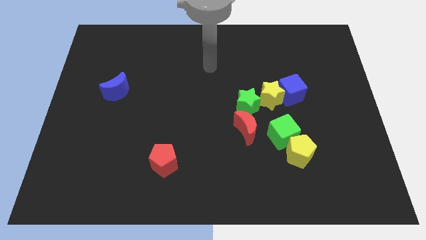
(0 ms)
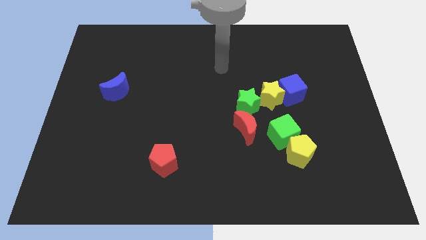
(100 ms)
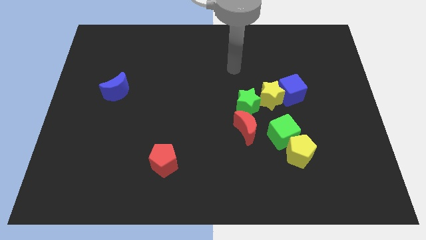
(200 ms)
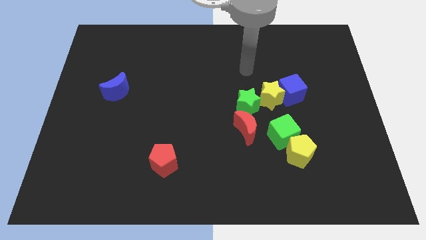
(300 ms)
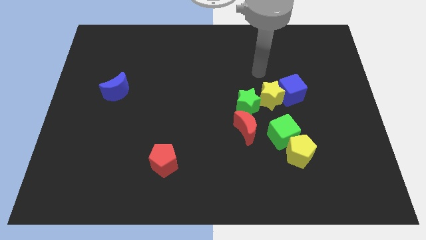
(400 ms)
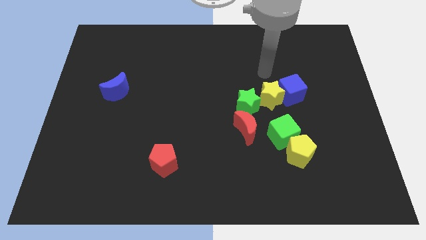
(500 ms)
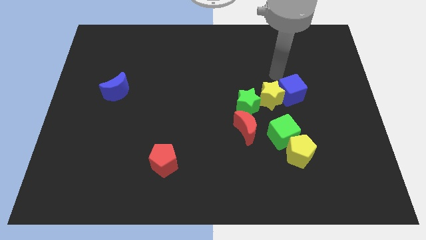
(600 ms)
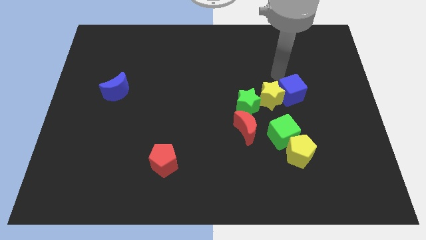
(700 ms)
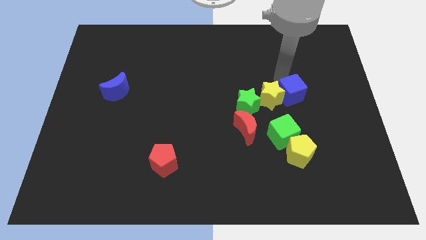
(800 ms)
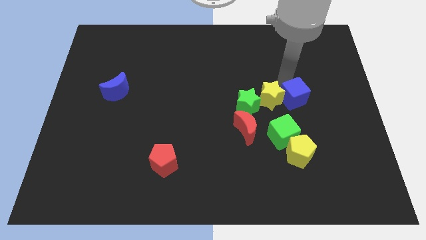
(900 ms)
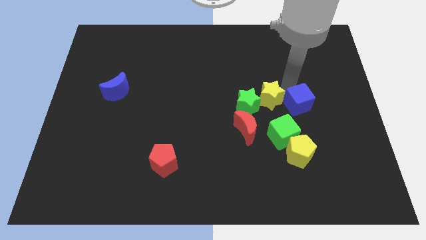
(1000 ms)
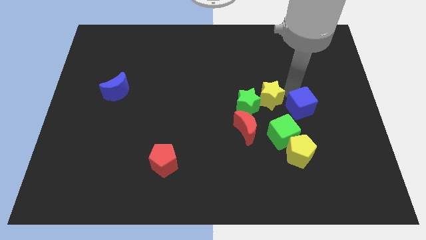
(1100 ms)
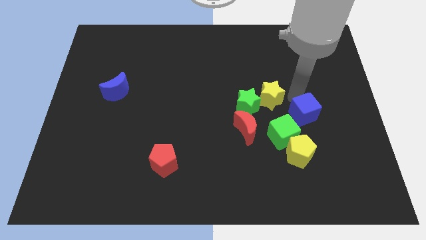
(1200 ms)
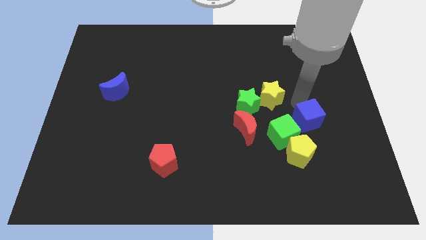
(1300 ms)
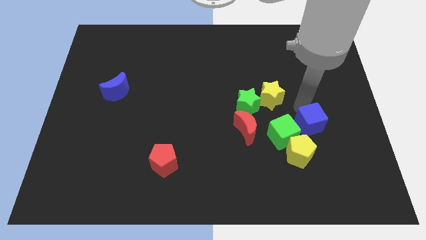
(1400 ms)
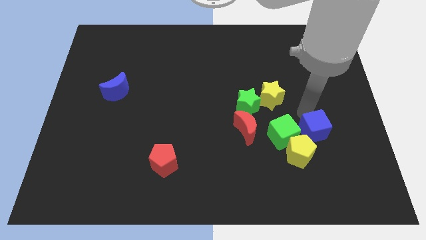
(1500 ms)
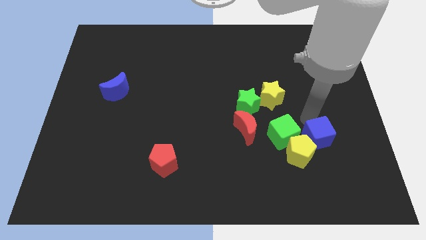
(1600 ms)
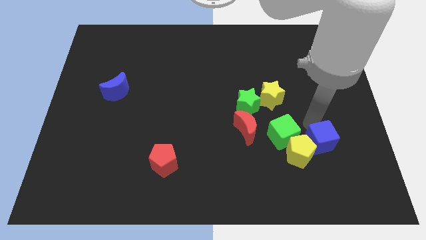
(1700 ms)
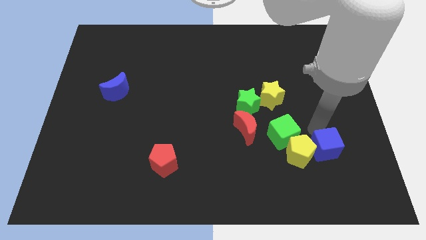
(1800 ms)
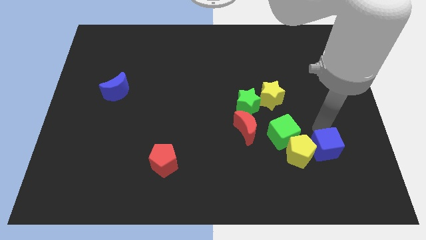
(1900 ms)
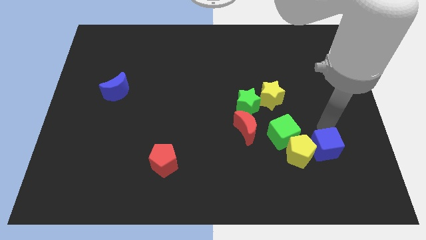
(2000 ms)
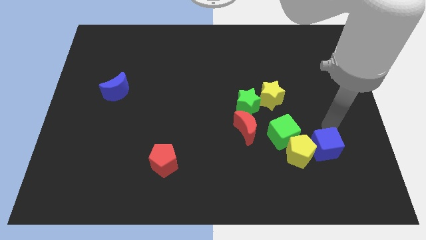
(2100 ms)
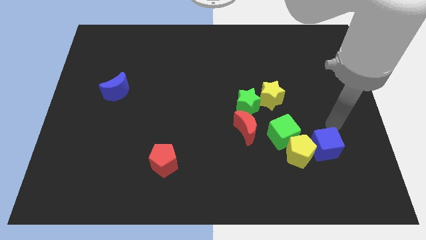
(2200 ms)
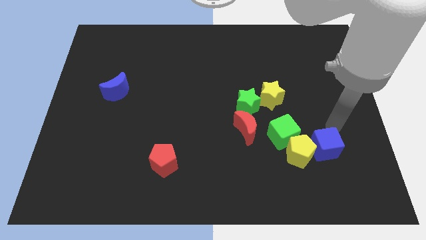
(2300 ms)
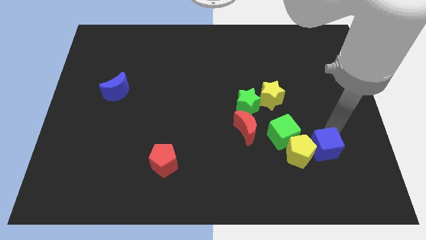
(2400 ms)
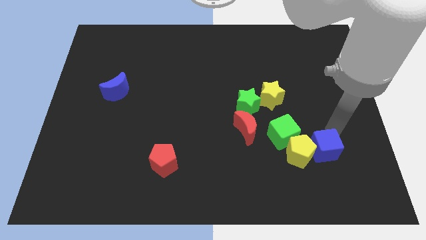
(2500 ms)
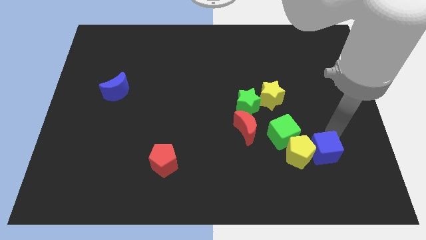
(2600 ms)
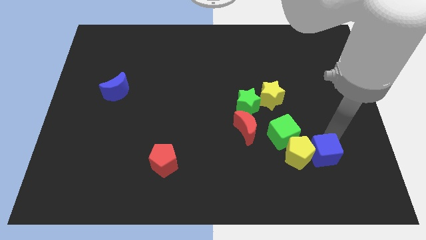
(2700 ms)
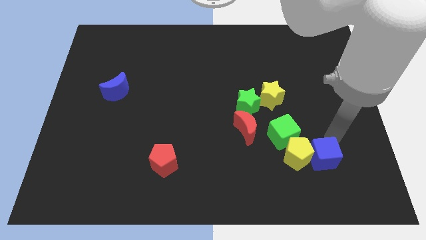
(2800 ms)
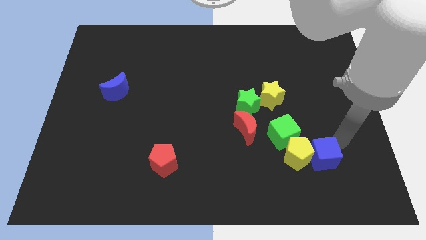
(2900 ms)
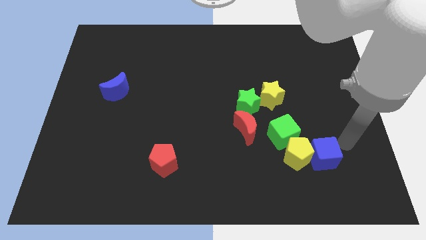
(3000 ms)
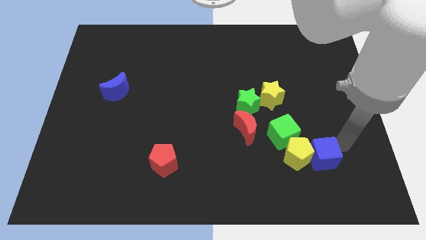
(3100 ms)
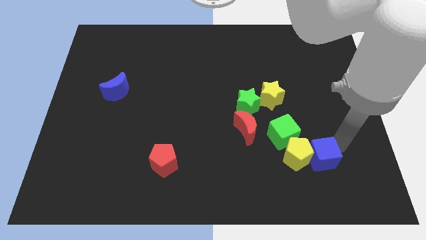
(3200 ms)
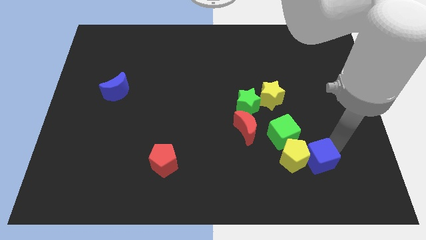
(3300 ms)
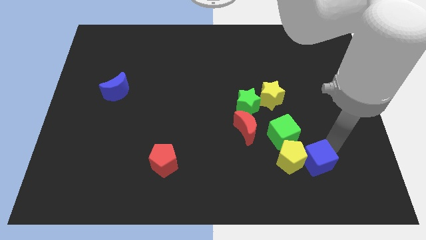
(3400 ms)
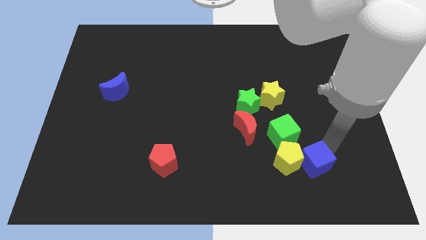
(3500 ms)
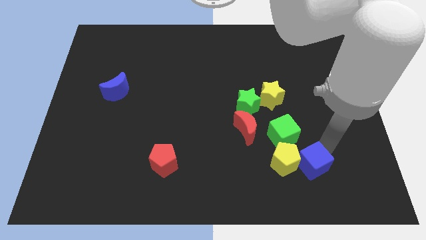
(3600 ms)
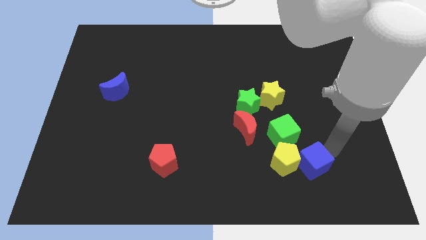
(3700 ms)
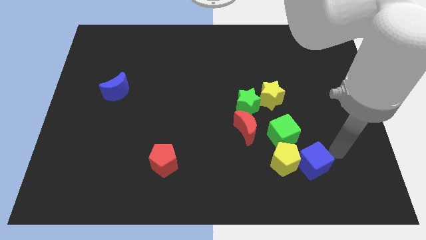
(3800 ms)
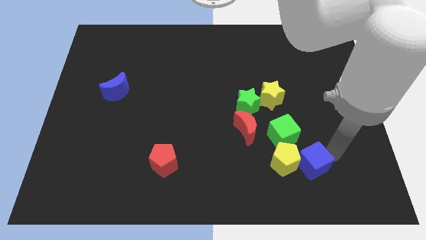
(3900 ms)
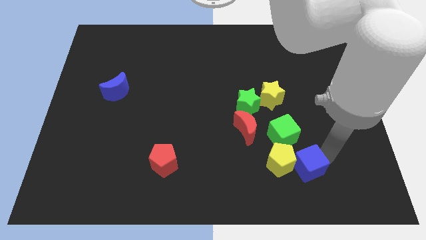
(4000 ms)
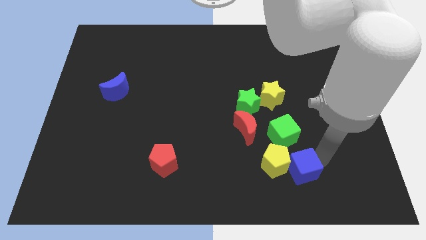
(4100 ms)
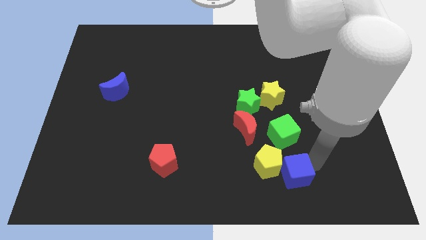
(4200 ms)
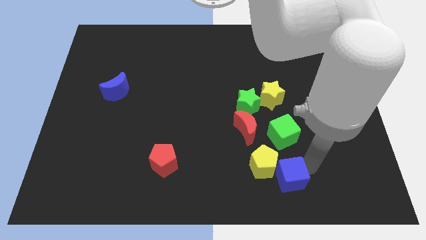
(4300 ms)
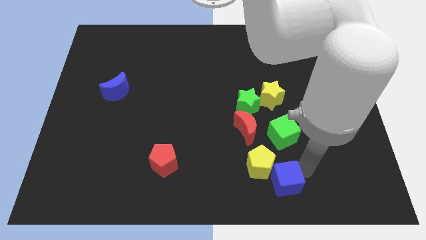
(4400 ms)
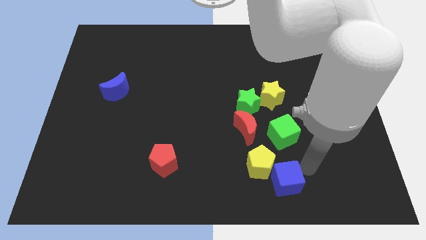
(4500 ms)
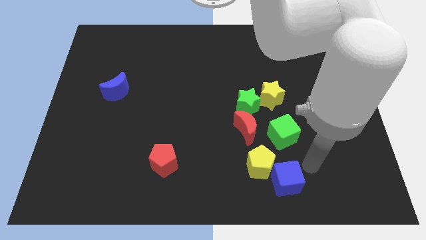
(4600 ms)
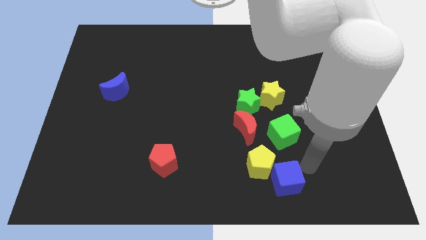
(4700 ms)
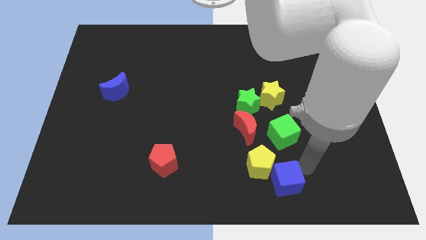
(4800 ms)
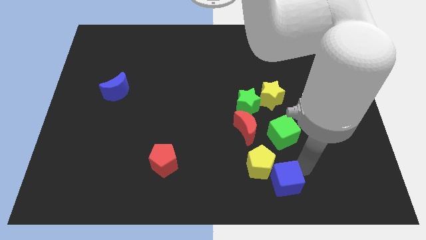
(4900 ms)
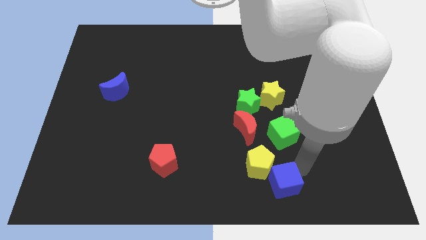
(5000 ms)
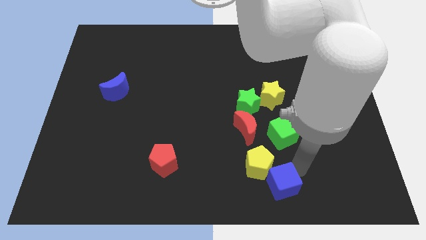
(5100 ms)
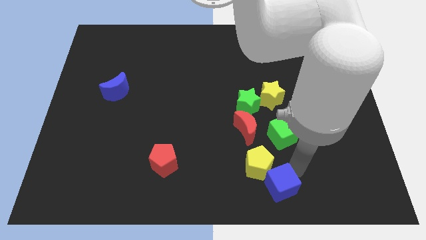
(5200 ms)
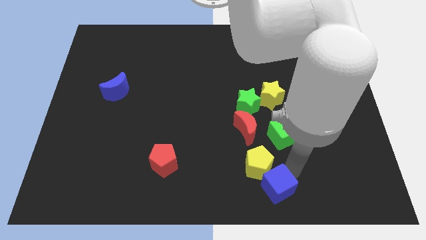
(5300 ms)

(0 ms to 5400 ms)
put the blue cube to the bottom side

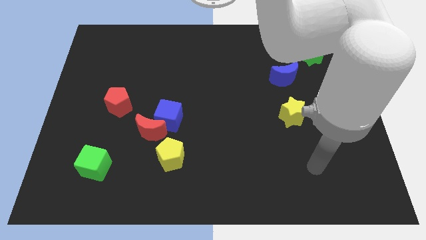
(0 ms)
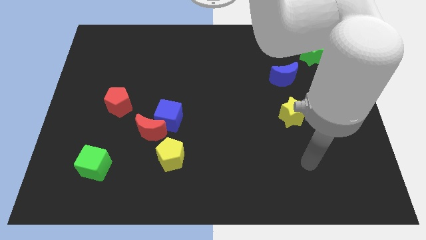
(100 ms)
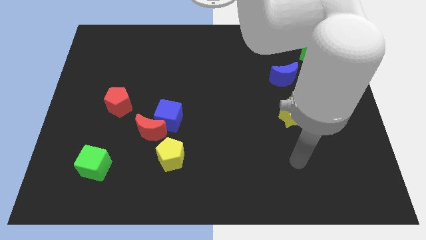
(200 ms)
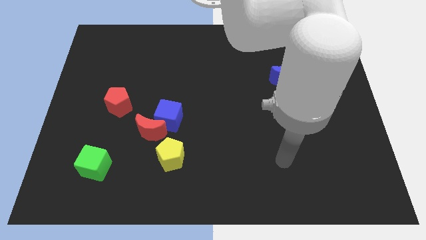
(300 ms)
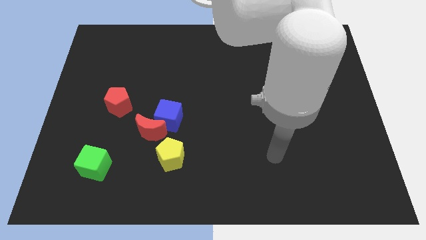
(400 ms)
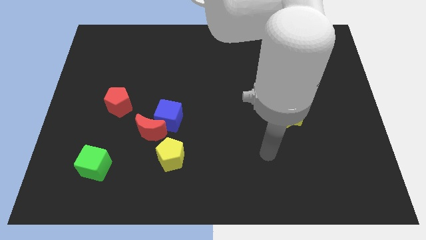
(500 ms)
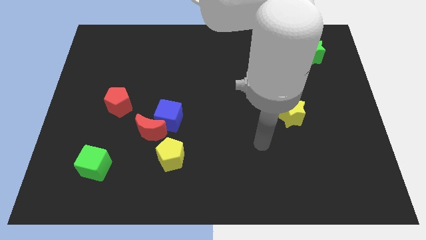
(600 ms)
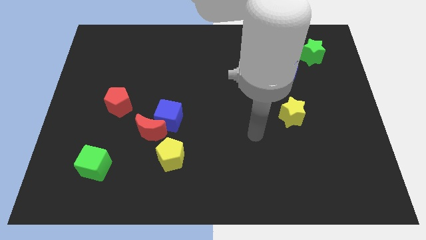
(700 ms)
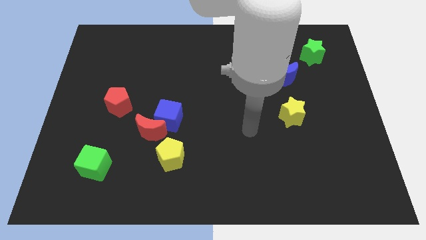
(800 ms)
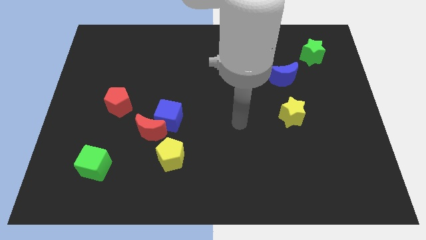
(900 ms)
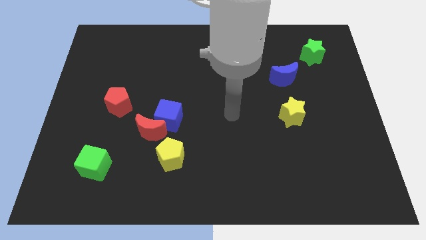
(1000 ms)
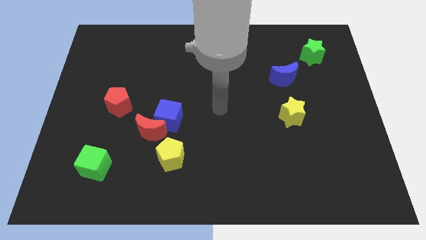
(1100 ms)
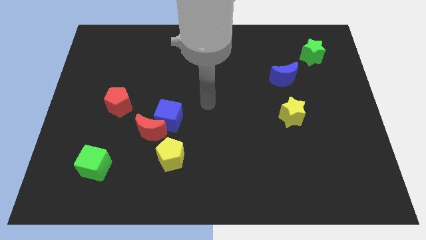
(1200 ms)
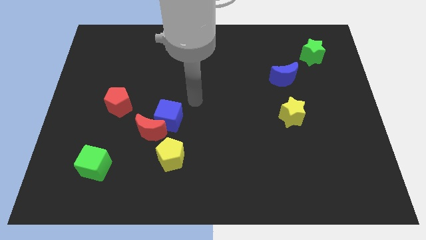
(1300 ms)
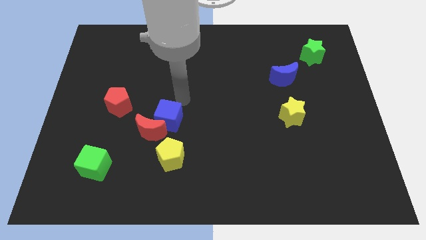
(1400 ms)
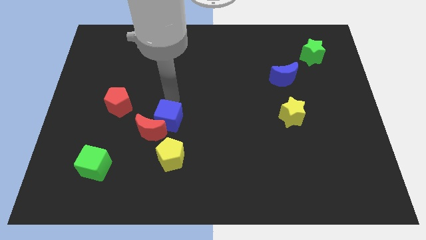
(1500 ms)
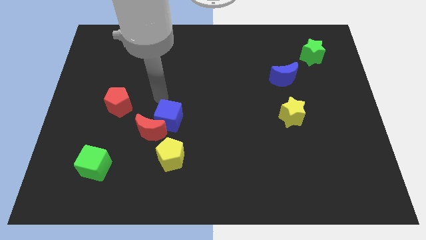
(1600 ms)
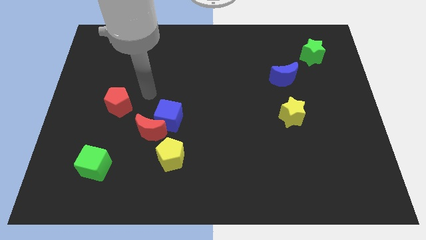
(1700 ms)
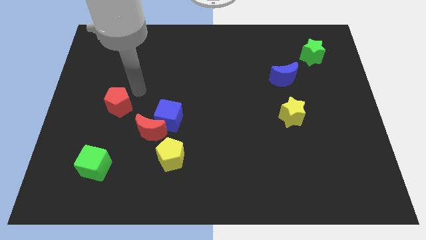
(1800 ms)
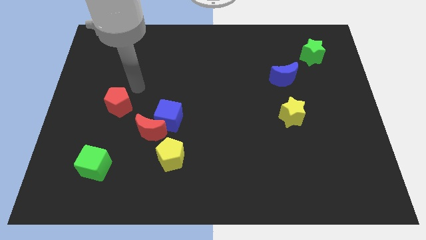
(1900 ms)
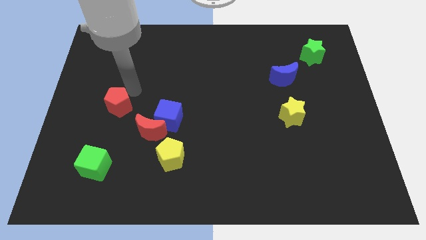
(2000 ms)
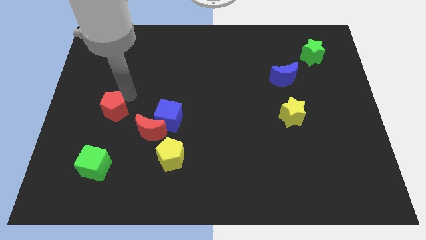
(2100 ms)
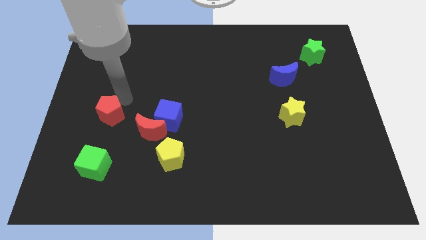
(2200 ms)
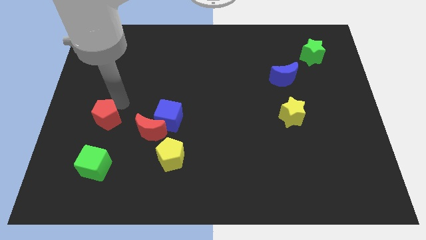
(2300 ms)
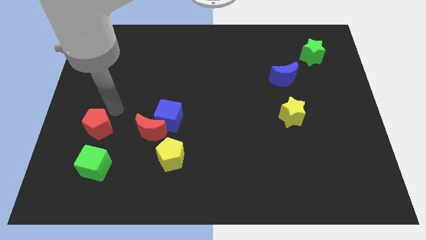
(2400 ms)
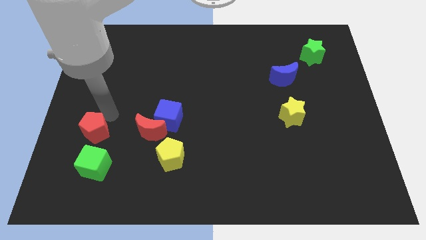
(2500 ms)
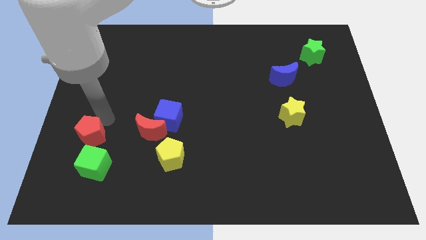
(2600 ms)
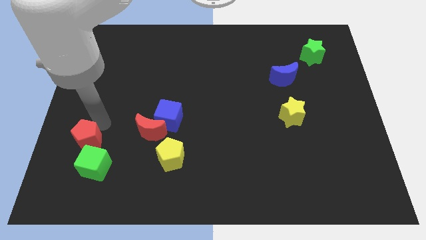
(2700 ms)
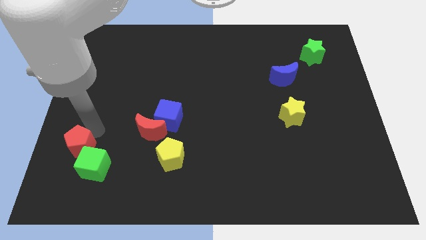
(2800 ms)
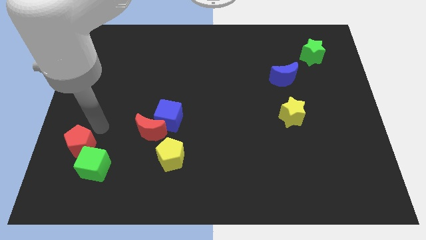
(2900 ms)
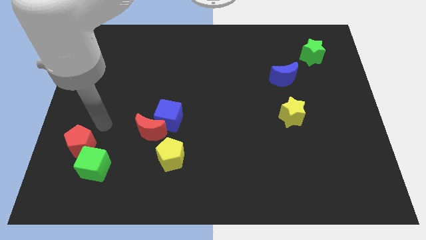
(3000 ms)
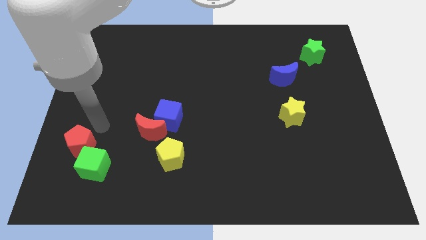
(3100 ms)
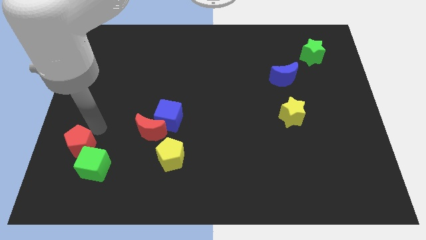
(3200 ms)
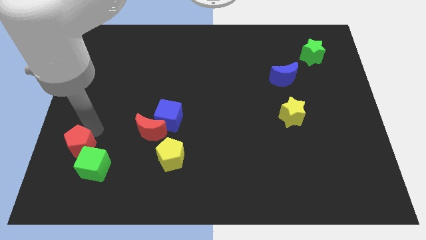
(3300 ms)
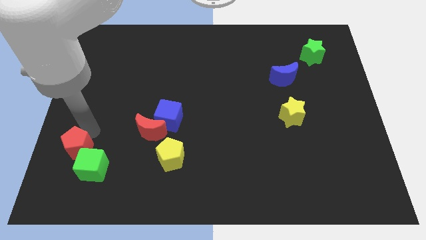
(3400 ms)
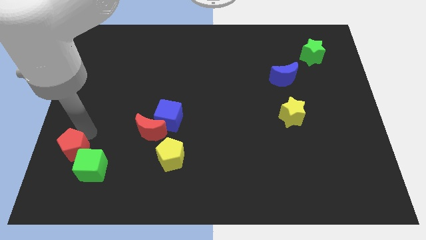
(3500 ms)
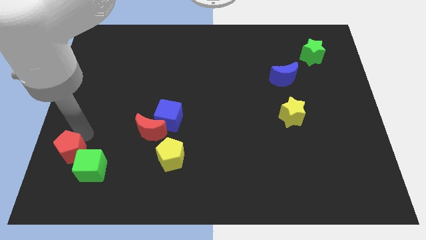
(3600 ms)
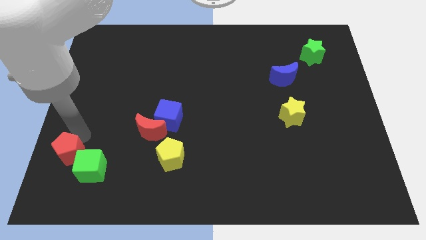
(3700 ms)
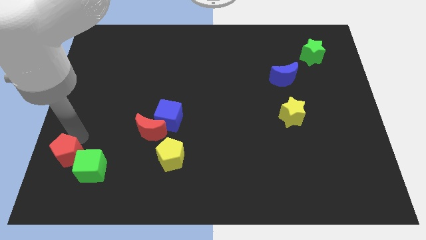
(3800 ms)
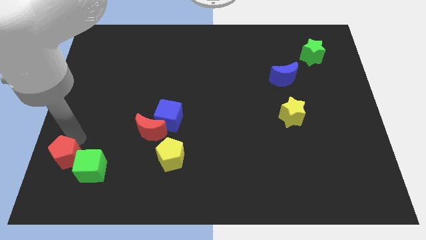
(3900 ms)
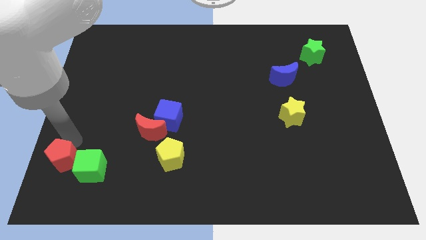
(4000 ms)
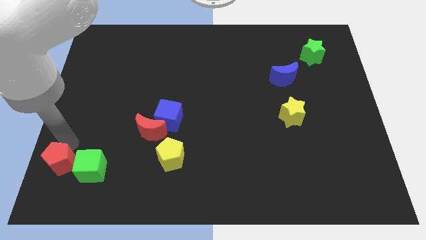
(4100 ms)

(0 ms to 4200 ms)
push the red pentagon to the lower left corner
